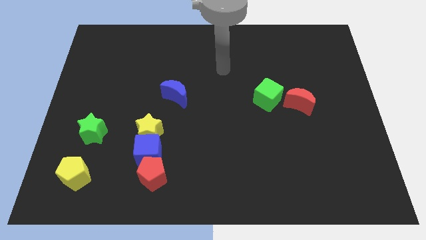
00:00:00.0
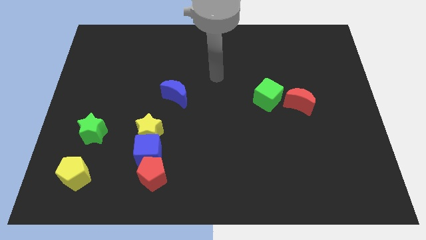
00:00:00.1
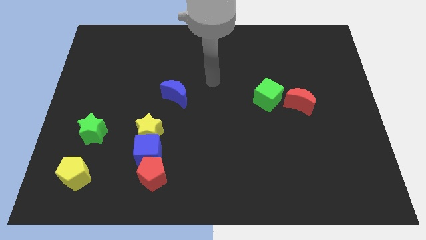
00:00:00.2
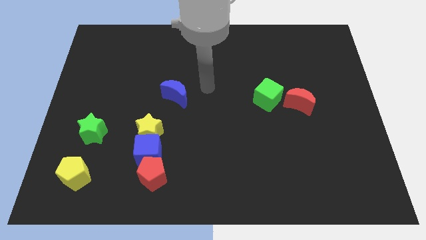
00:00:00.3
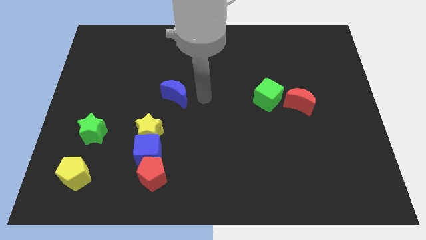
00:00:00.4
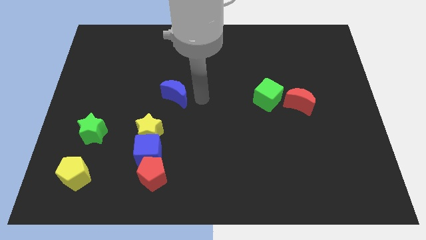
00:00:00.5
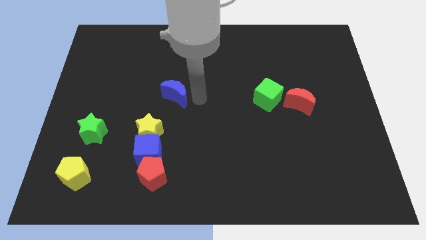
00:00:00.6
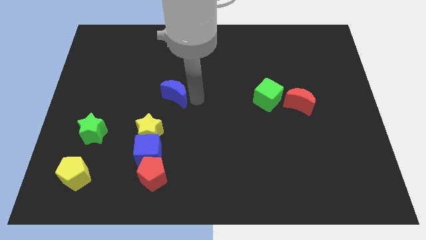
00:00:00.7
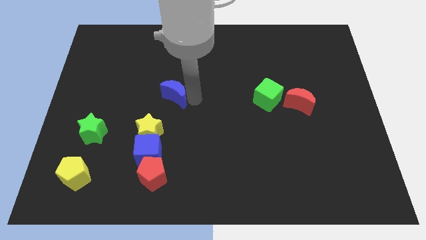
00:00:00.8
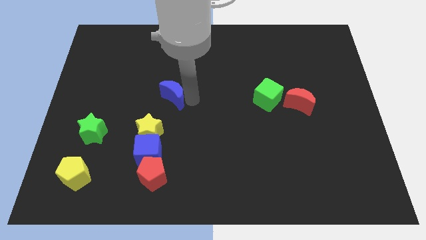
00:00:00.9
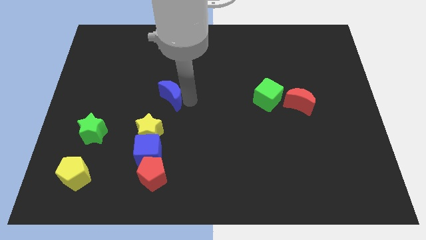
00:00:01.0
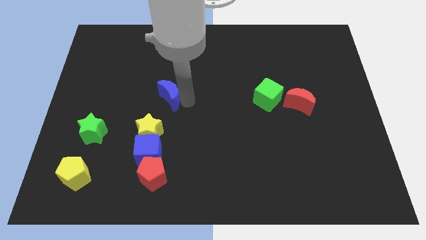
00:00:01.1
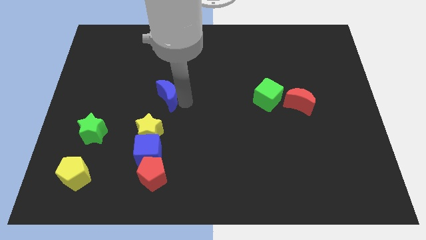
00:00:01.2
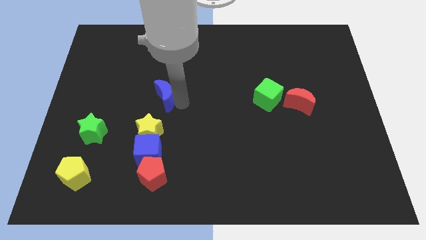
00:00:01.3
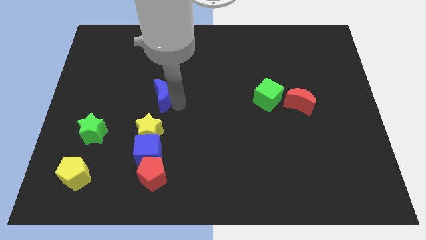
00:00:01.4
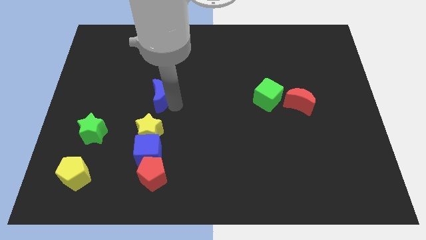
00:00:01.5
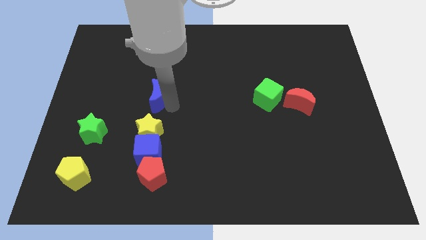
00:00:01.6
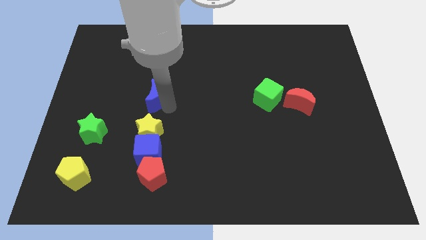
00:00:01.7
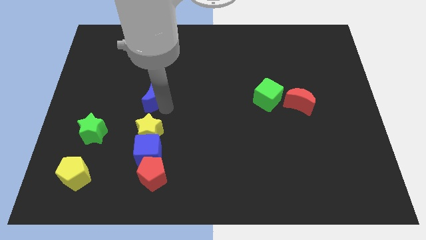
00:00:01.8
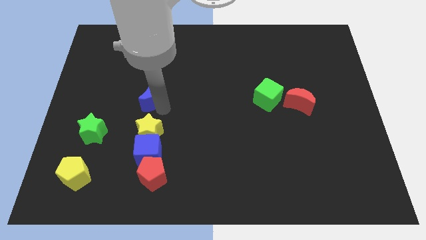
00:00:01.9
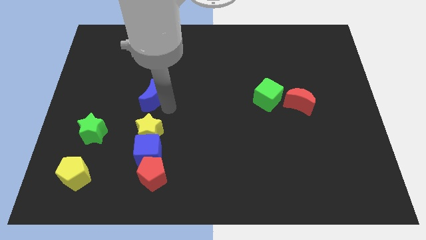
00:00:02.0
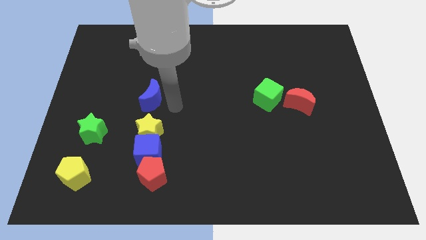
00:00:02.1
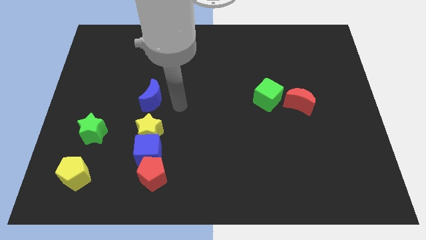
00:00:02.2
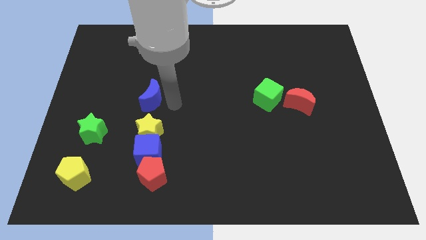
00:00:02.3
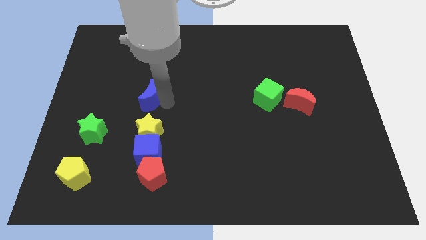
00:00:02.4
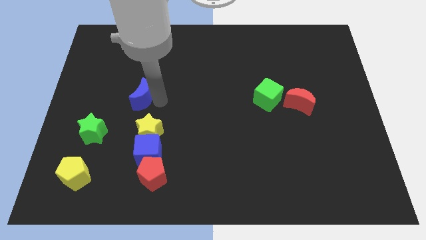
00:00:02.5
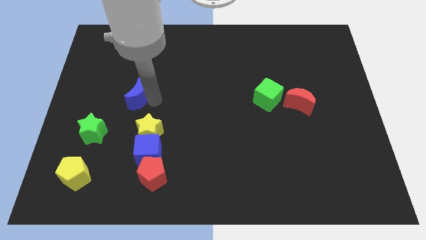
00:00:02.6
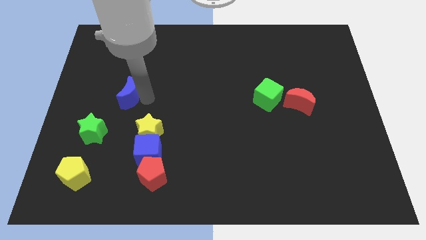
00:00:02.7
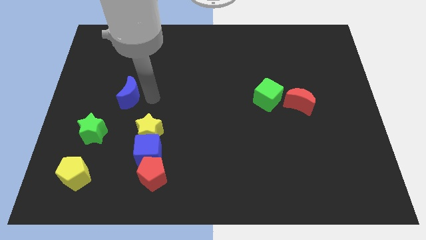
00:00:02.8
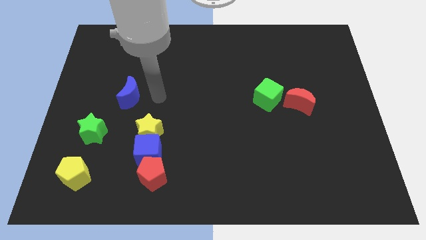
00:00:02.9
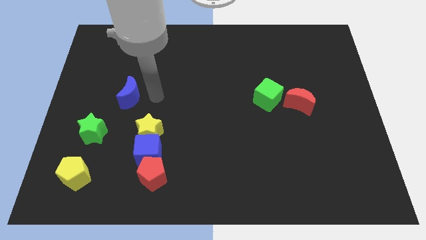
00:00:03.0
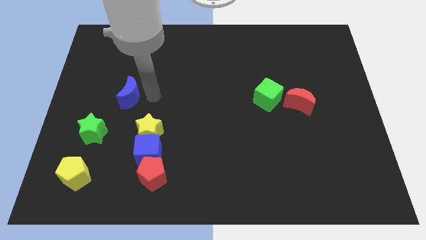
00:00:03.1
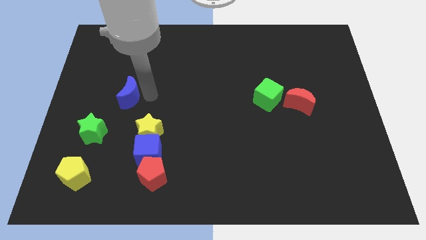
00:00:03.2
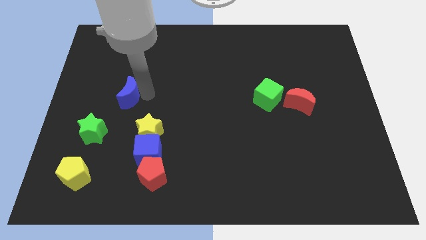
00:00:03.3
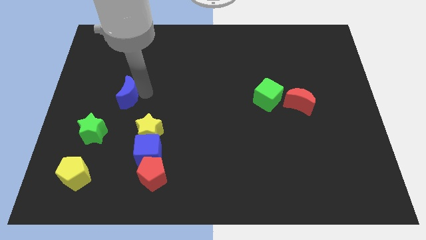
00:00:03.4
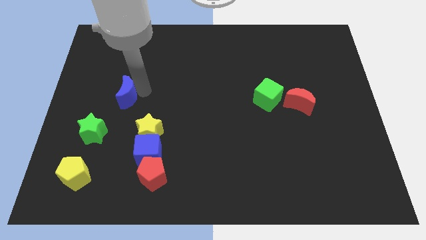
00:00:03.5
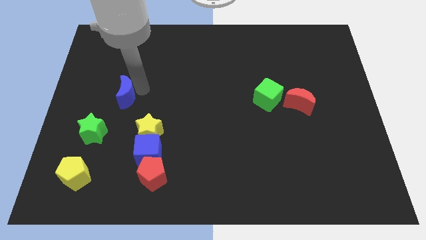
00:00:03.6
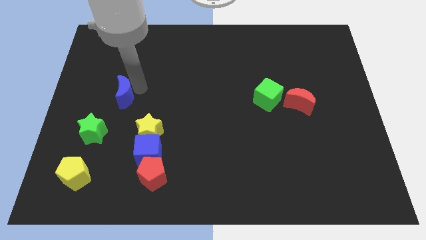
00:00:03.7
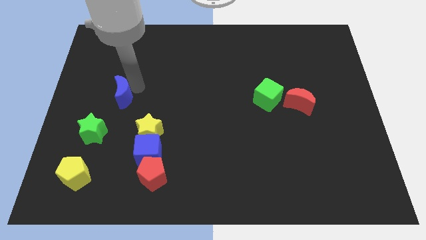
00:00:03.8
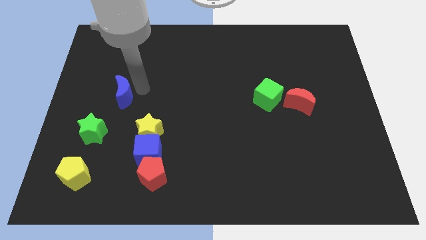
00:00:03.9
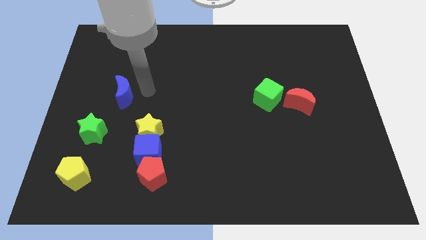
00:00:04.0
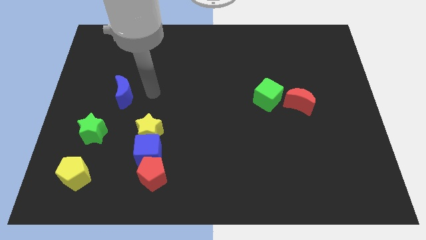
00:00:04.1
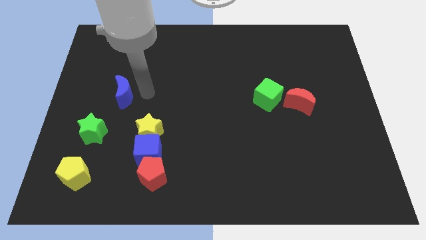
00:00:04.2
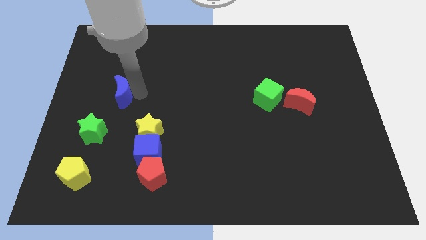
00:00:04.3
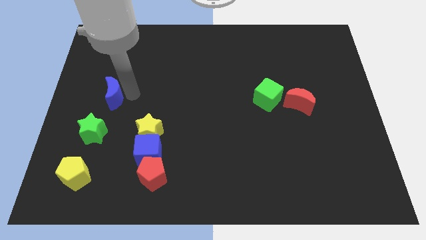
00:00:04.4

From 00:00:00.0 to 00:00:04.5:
put the blue moon to the top of the green star

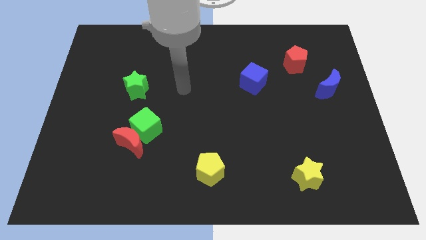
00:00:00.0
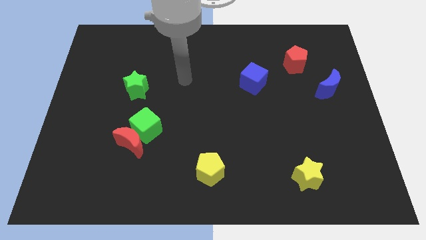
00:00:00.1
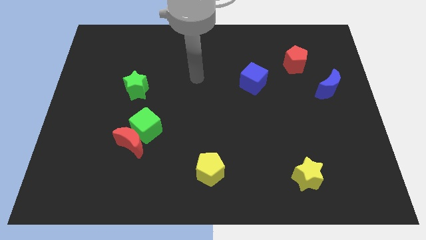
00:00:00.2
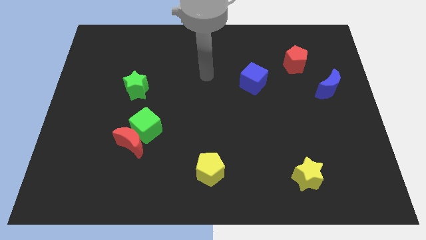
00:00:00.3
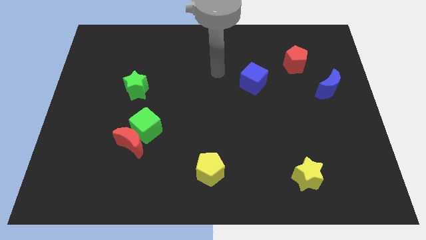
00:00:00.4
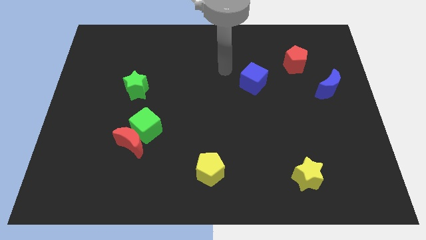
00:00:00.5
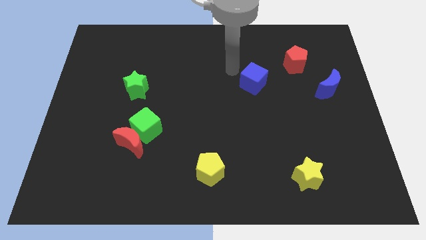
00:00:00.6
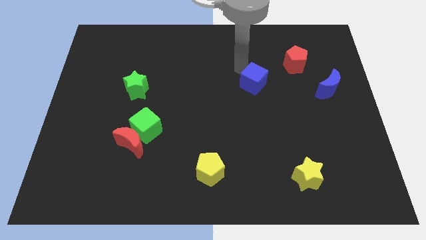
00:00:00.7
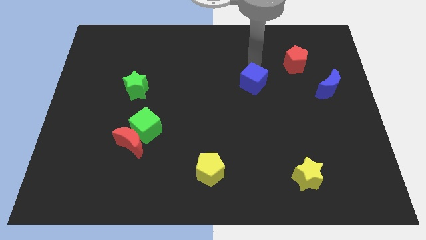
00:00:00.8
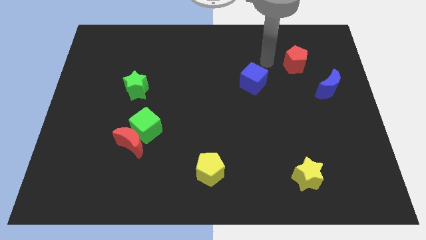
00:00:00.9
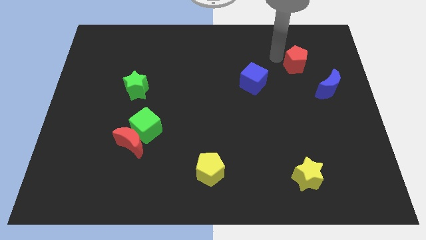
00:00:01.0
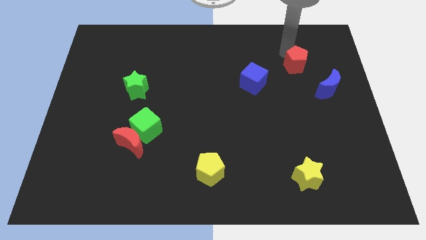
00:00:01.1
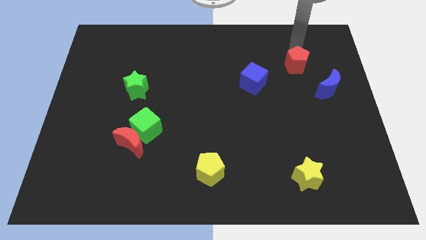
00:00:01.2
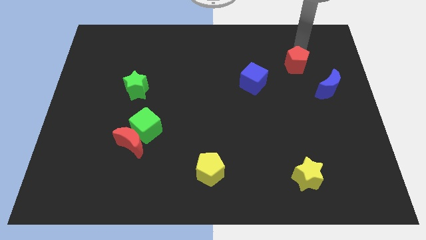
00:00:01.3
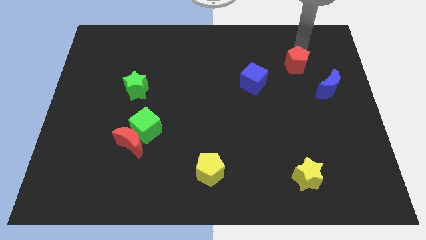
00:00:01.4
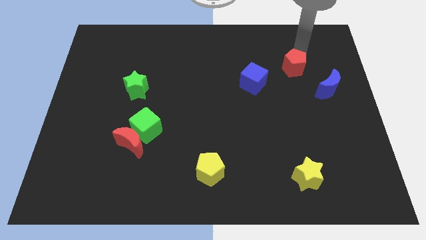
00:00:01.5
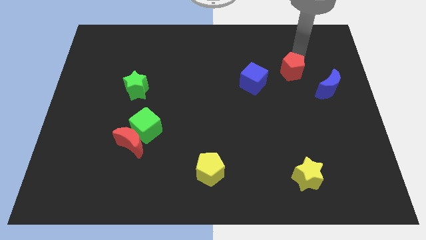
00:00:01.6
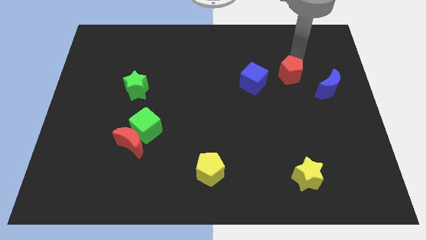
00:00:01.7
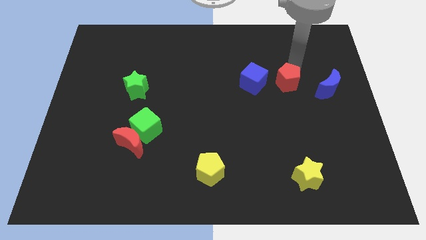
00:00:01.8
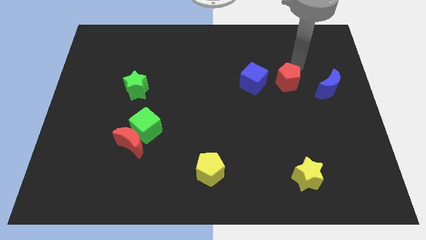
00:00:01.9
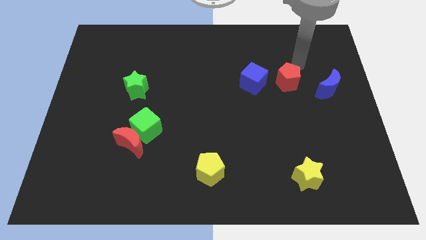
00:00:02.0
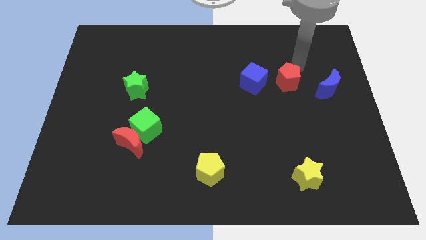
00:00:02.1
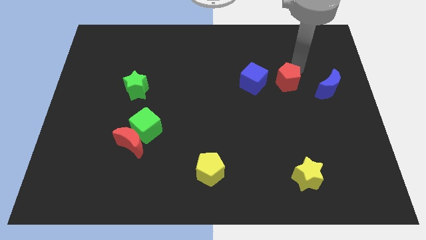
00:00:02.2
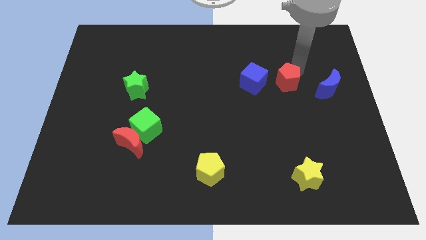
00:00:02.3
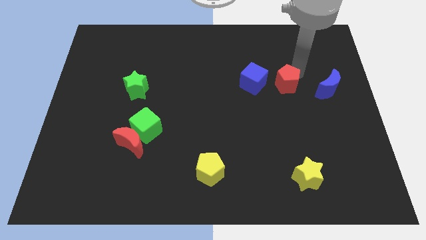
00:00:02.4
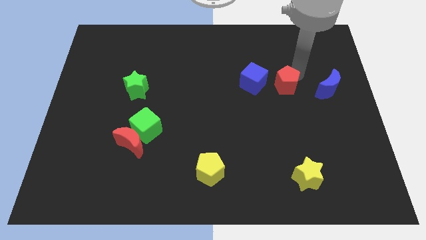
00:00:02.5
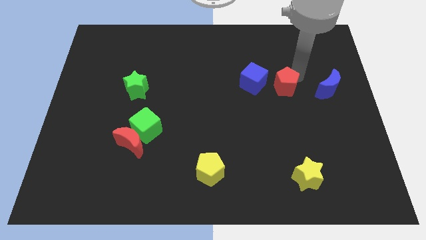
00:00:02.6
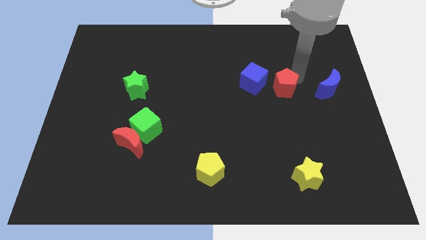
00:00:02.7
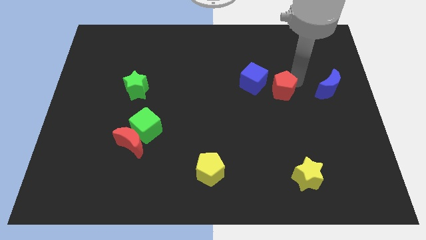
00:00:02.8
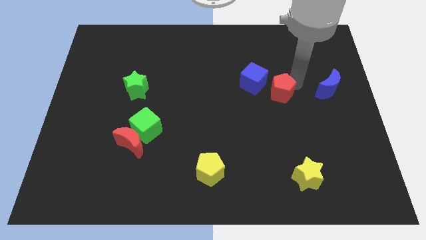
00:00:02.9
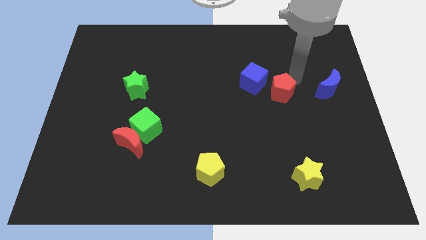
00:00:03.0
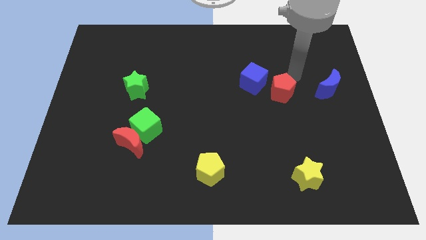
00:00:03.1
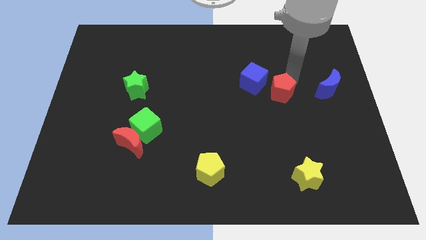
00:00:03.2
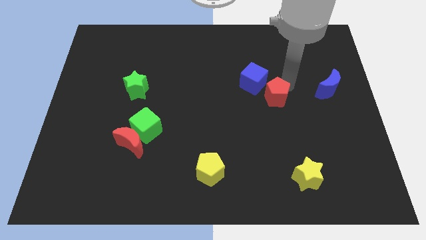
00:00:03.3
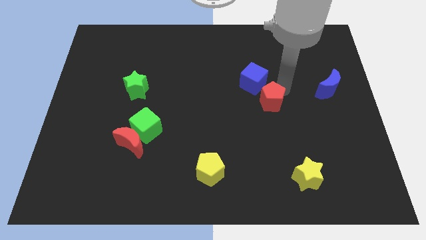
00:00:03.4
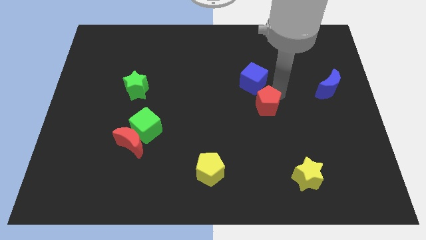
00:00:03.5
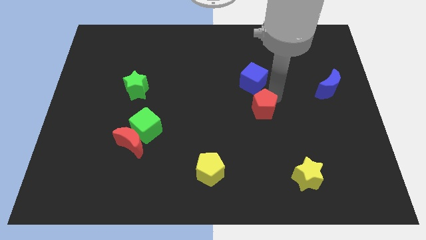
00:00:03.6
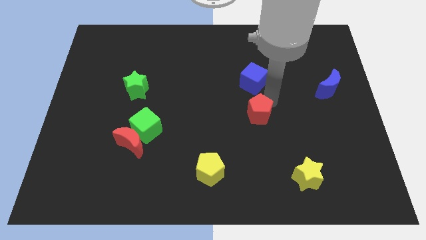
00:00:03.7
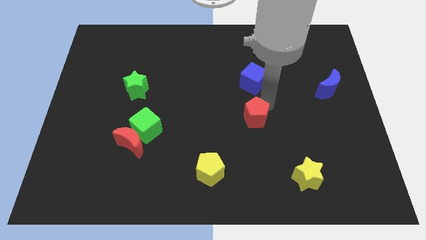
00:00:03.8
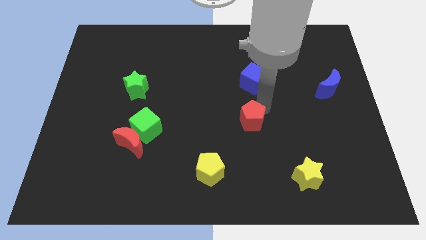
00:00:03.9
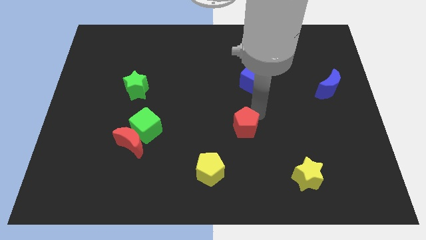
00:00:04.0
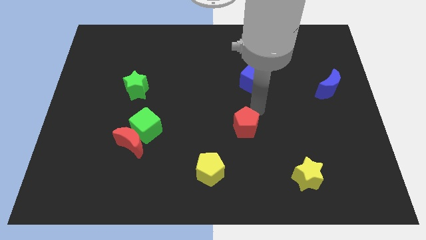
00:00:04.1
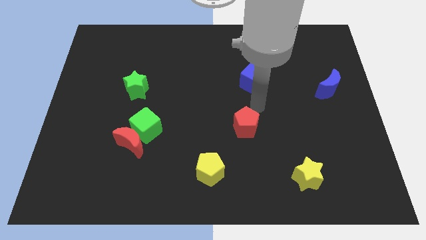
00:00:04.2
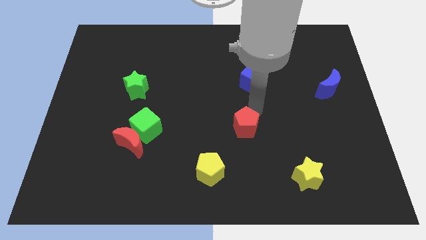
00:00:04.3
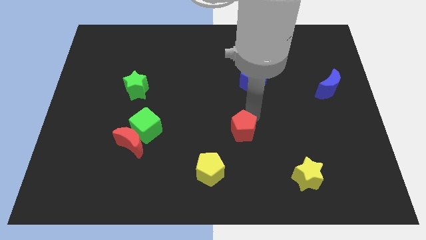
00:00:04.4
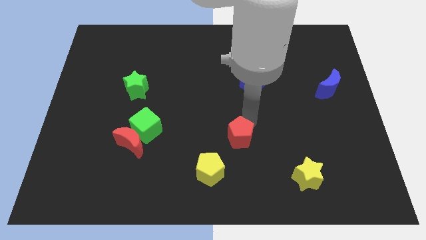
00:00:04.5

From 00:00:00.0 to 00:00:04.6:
move the red pentagon diagonally up and to the right of the yellow pentagon
